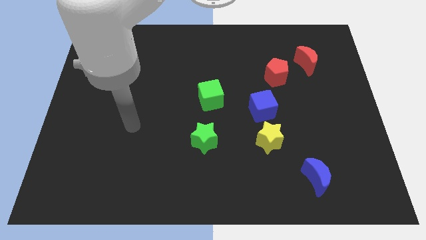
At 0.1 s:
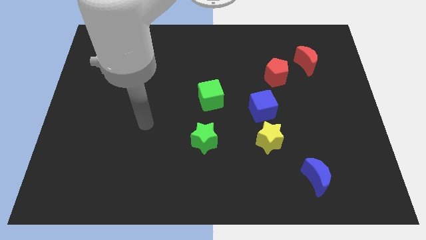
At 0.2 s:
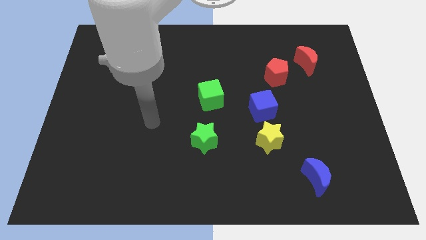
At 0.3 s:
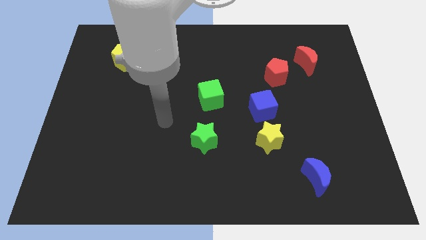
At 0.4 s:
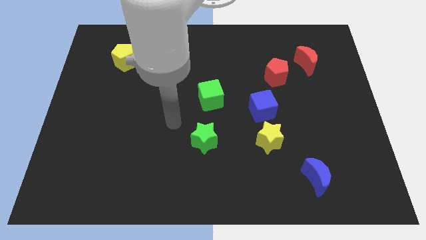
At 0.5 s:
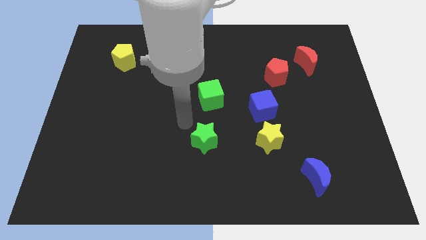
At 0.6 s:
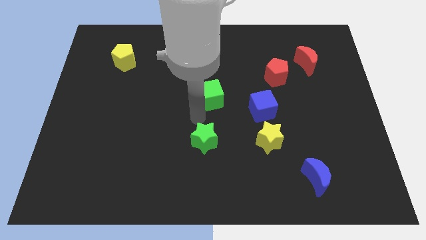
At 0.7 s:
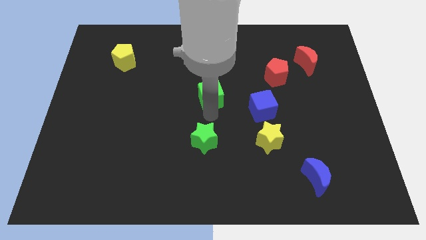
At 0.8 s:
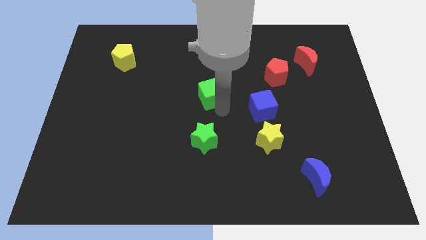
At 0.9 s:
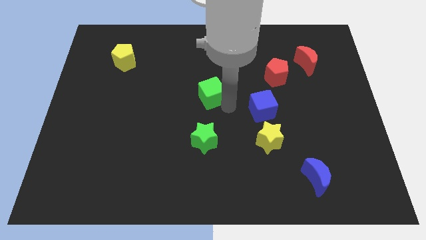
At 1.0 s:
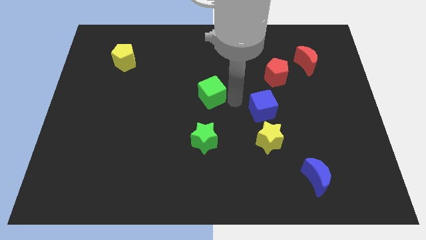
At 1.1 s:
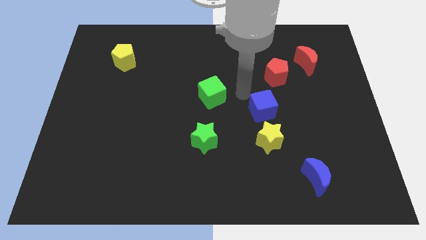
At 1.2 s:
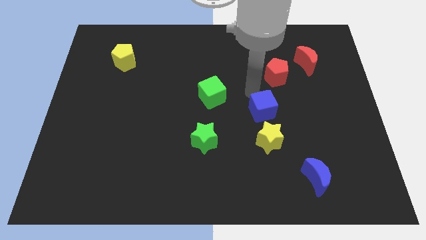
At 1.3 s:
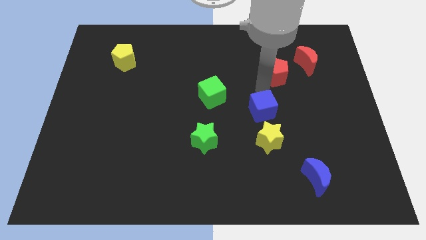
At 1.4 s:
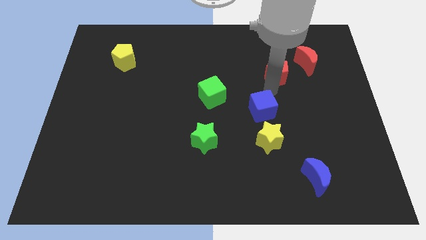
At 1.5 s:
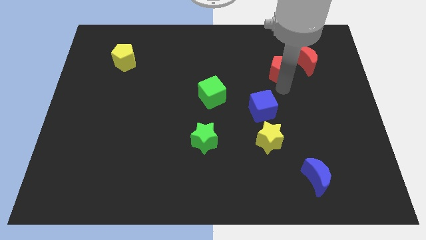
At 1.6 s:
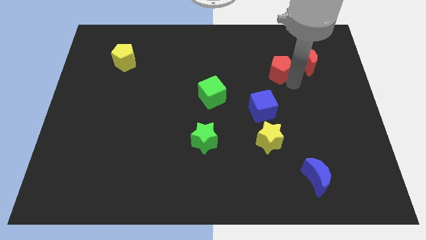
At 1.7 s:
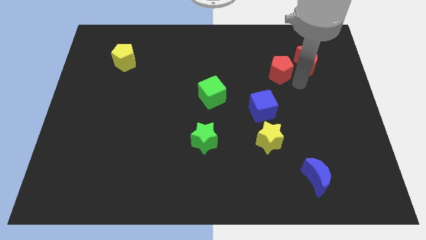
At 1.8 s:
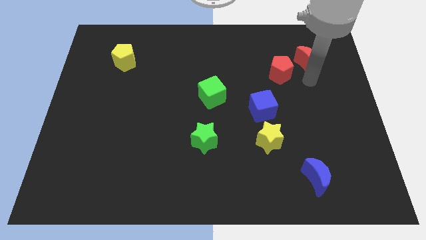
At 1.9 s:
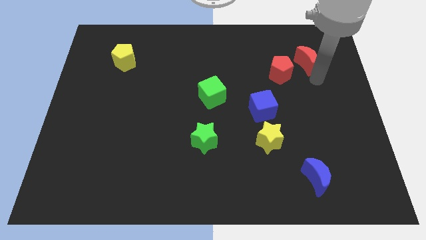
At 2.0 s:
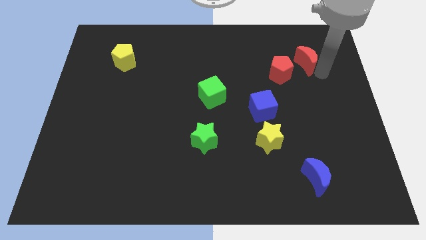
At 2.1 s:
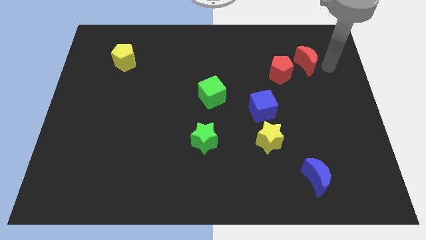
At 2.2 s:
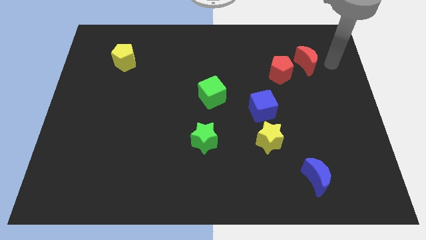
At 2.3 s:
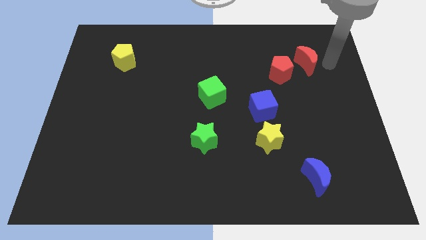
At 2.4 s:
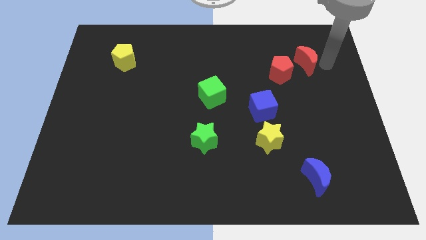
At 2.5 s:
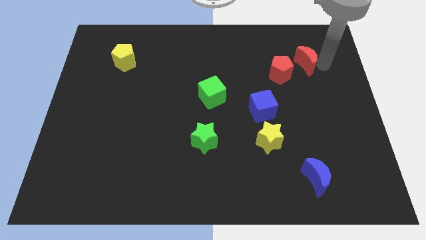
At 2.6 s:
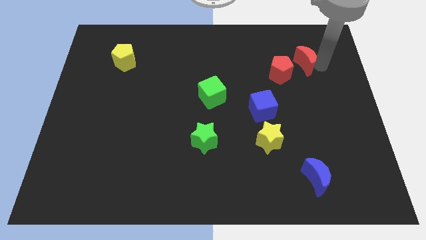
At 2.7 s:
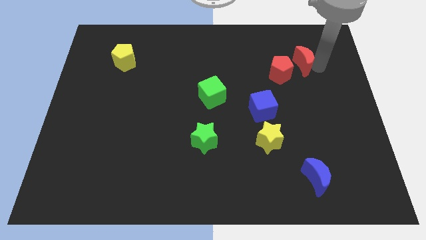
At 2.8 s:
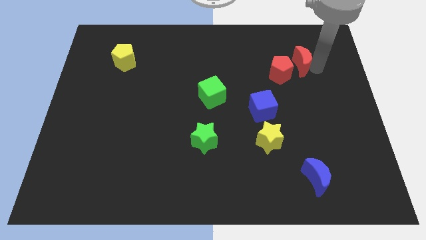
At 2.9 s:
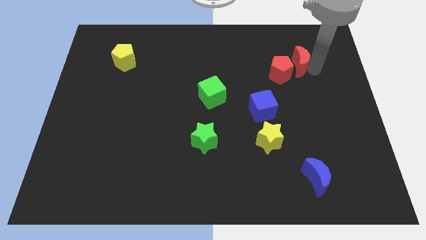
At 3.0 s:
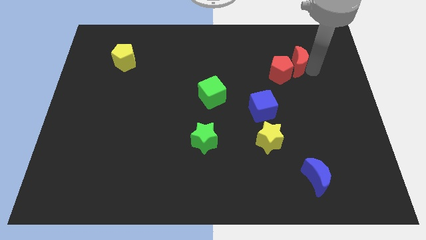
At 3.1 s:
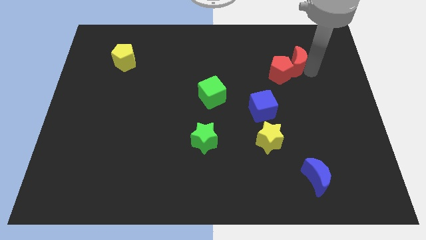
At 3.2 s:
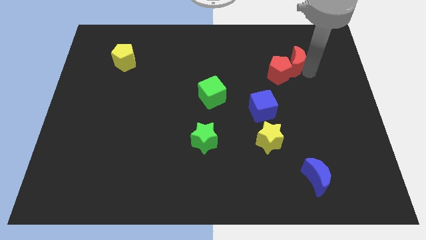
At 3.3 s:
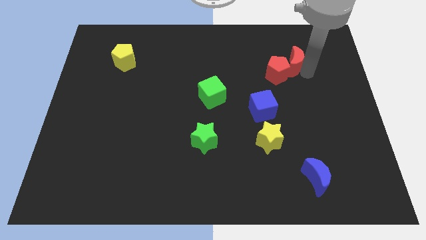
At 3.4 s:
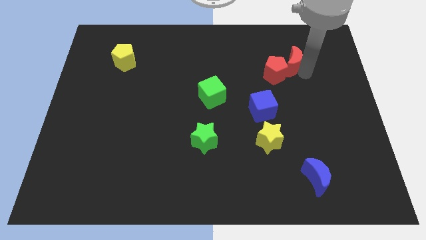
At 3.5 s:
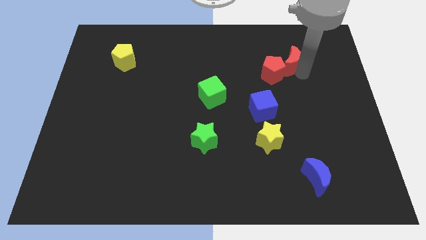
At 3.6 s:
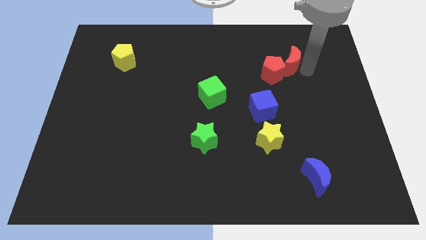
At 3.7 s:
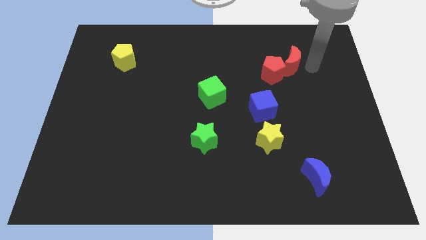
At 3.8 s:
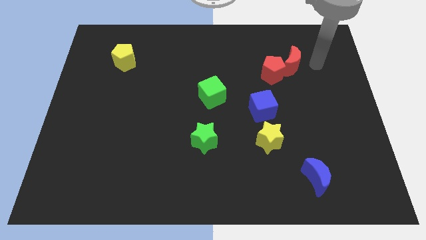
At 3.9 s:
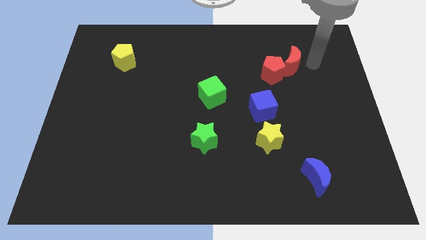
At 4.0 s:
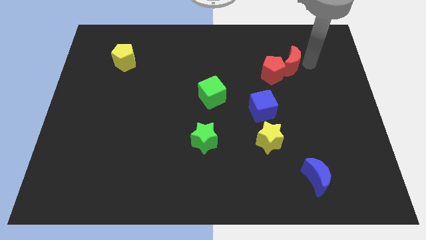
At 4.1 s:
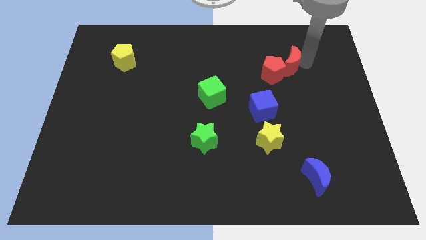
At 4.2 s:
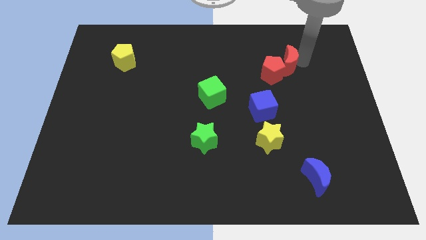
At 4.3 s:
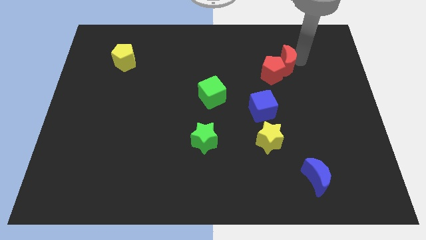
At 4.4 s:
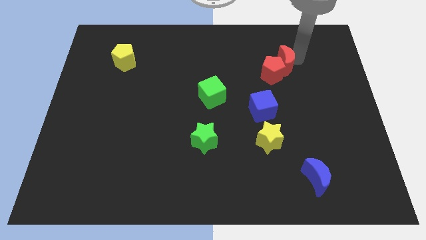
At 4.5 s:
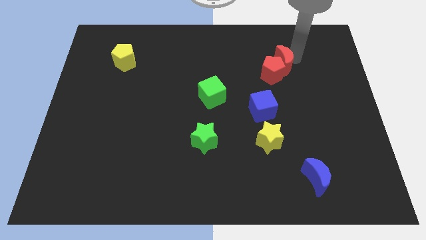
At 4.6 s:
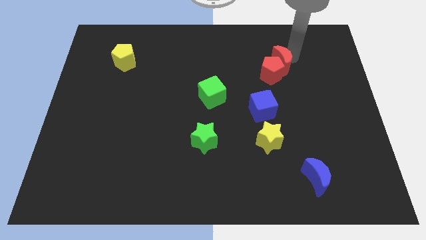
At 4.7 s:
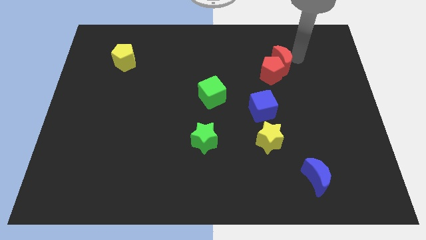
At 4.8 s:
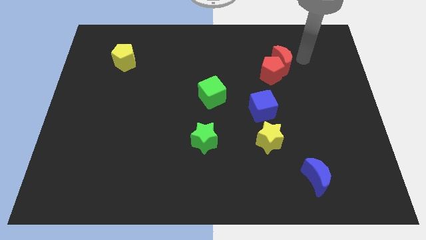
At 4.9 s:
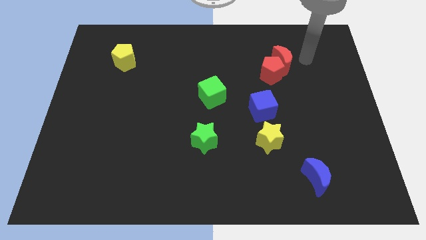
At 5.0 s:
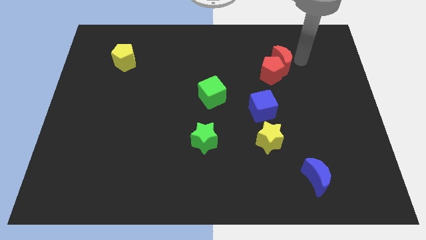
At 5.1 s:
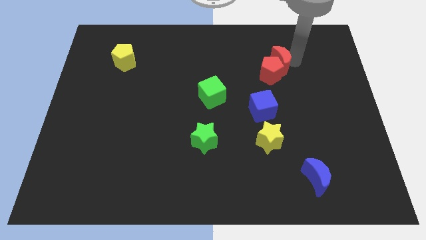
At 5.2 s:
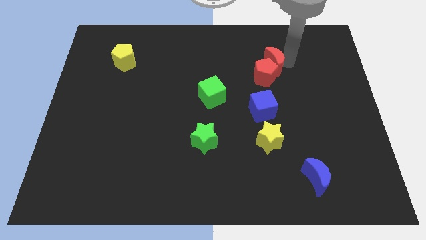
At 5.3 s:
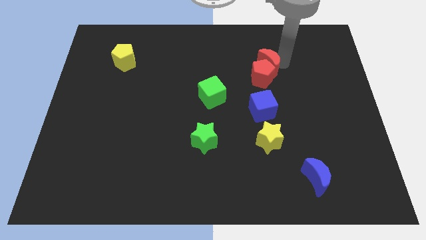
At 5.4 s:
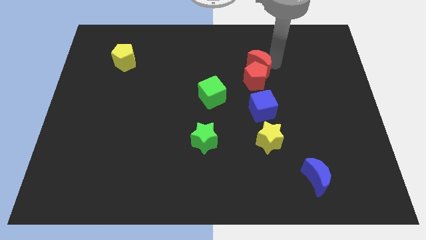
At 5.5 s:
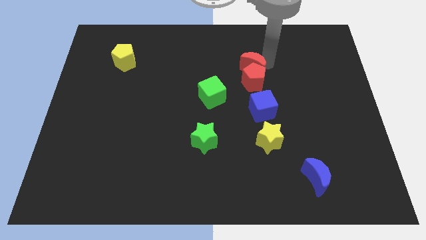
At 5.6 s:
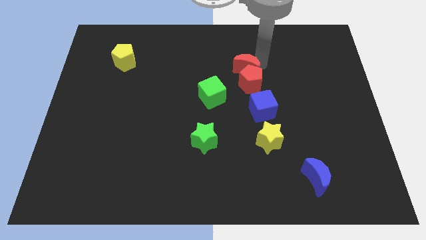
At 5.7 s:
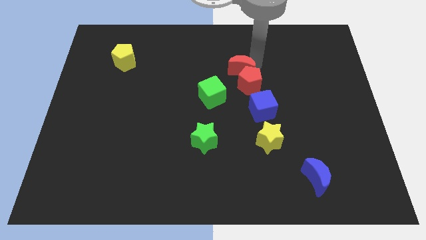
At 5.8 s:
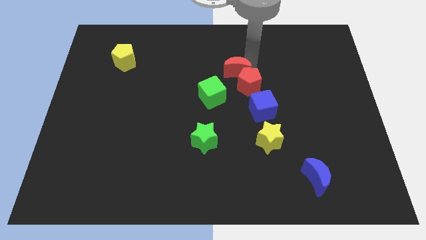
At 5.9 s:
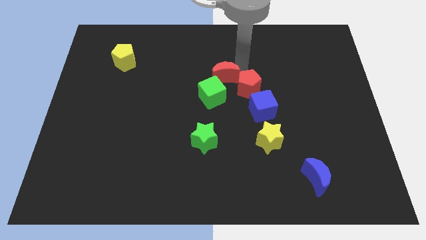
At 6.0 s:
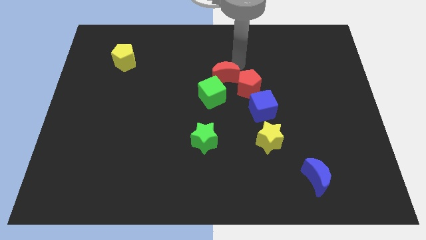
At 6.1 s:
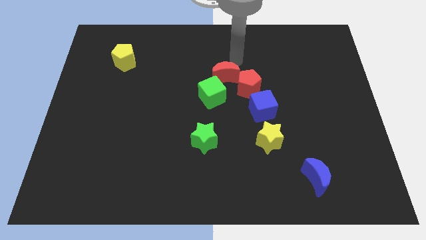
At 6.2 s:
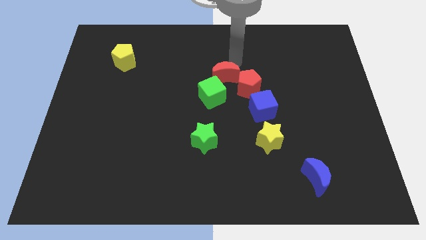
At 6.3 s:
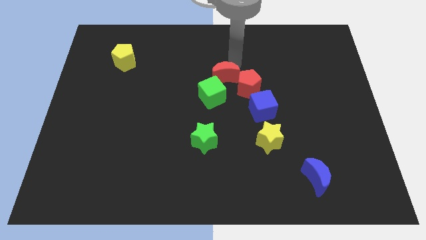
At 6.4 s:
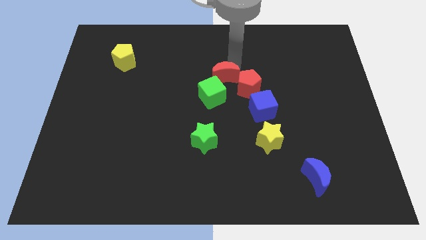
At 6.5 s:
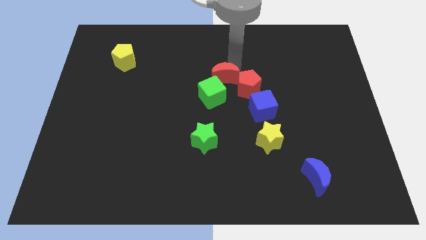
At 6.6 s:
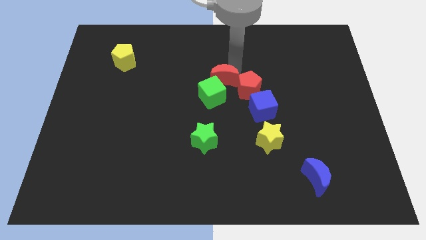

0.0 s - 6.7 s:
slide the red moon towards the green cube
